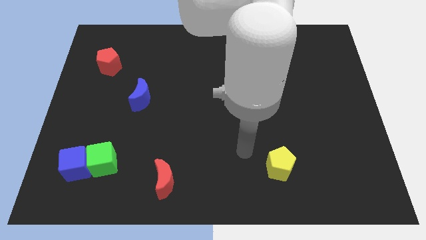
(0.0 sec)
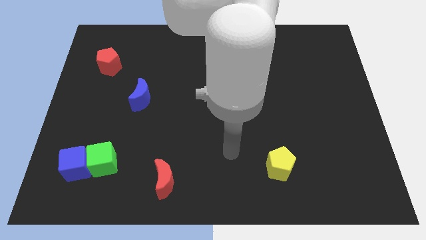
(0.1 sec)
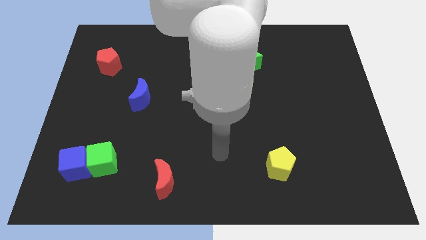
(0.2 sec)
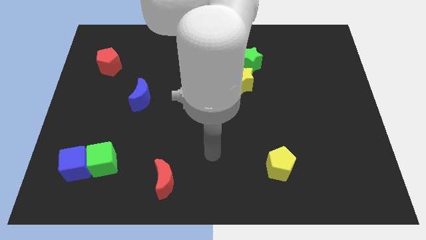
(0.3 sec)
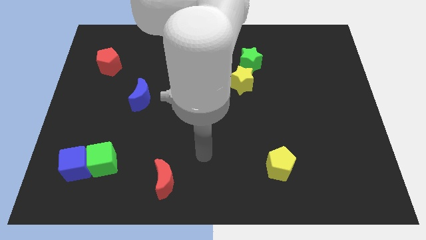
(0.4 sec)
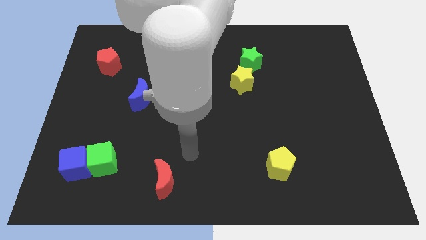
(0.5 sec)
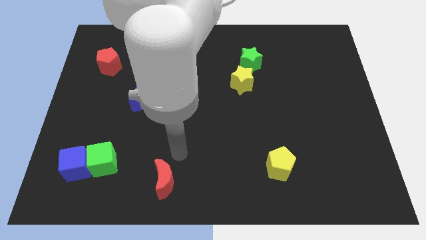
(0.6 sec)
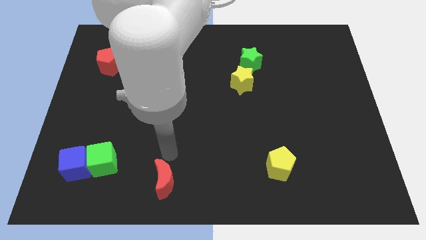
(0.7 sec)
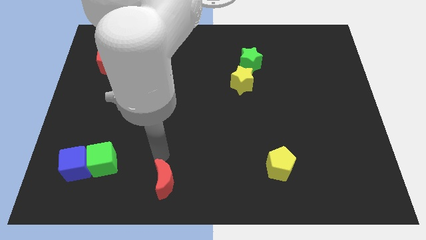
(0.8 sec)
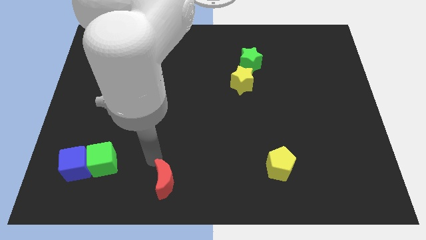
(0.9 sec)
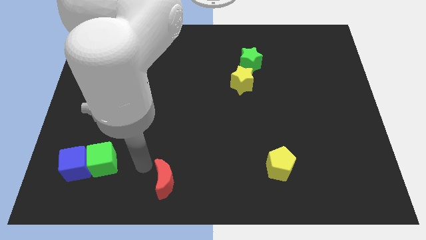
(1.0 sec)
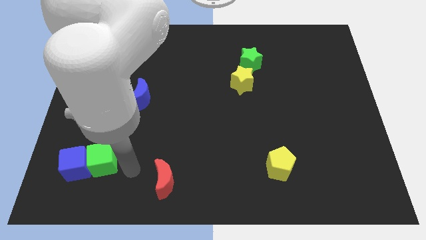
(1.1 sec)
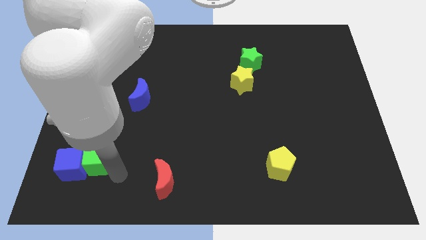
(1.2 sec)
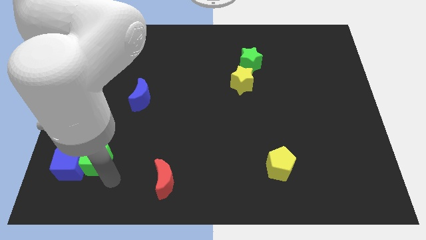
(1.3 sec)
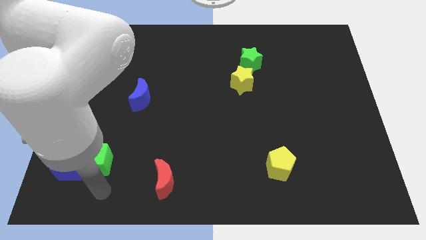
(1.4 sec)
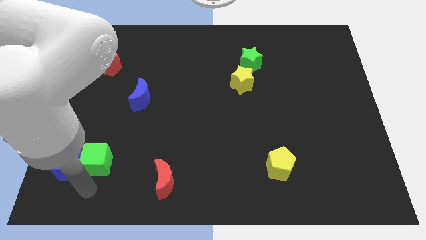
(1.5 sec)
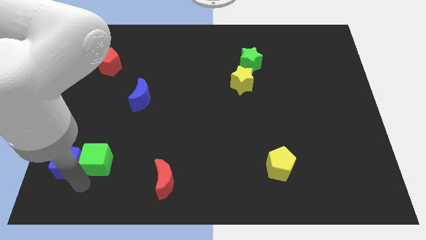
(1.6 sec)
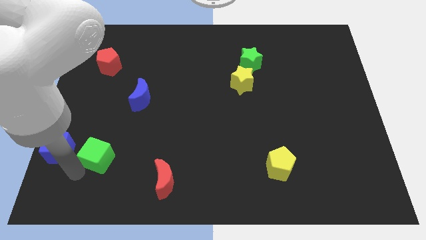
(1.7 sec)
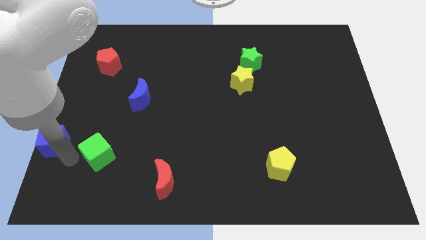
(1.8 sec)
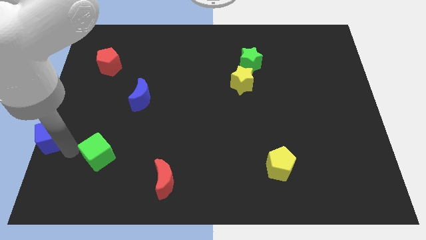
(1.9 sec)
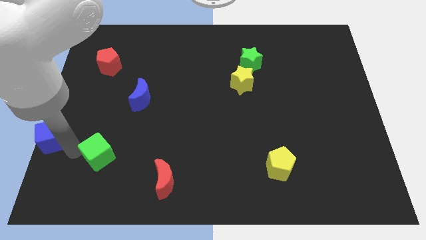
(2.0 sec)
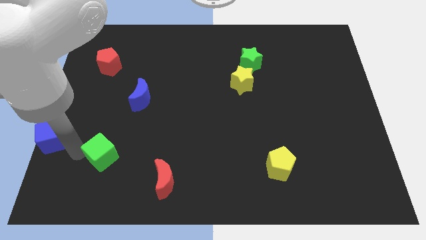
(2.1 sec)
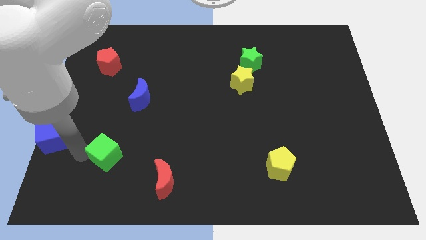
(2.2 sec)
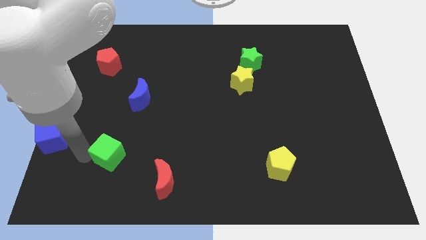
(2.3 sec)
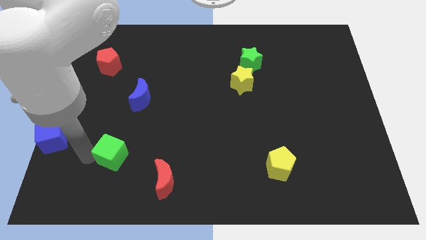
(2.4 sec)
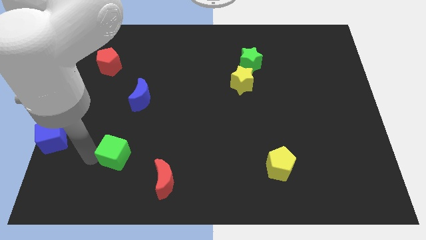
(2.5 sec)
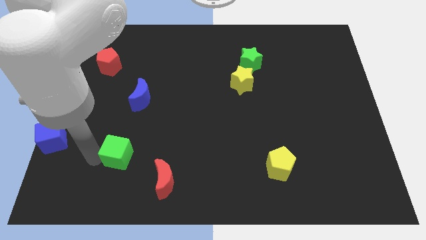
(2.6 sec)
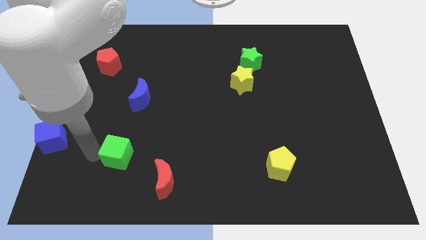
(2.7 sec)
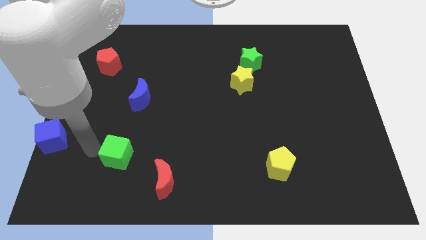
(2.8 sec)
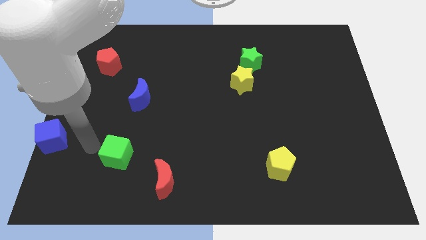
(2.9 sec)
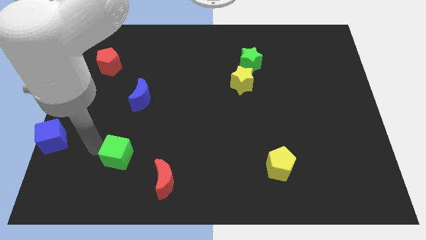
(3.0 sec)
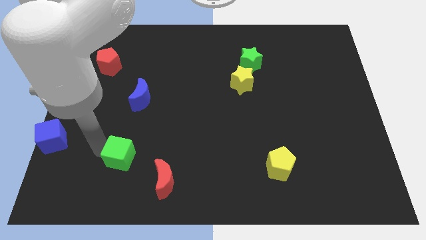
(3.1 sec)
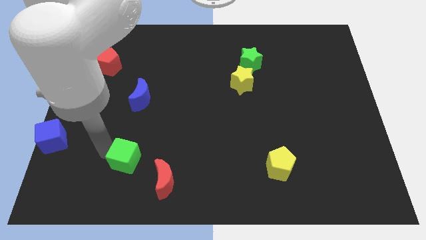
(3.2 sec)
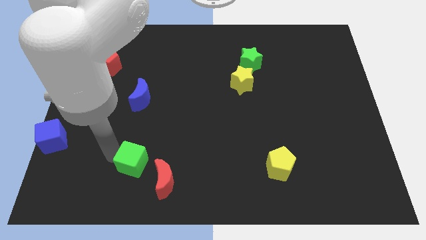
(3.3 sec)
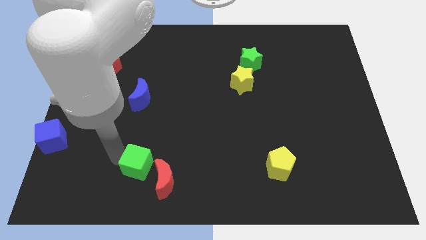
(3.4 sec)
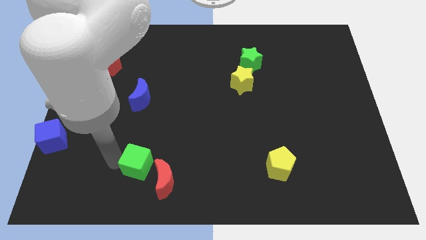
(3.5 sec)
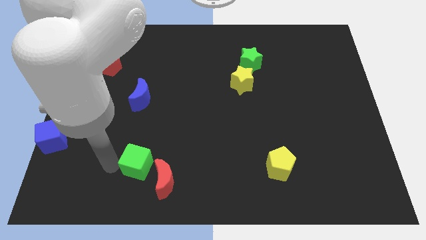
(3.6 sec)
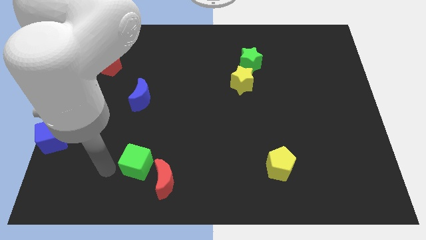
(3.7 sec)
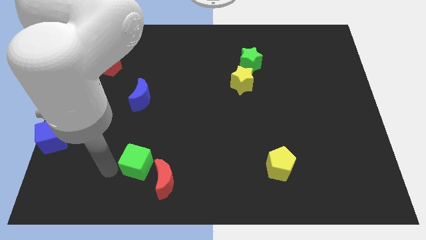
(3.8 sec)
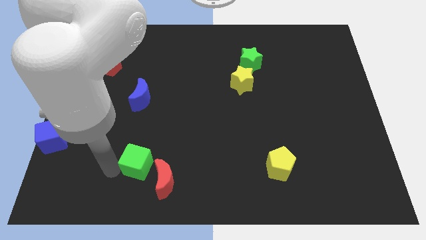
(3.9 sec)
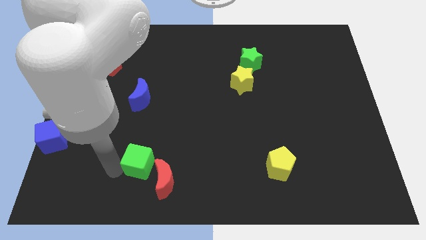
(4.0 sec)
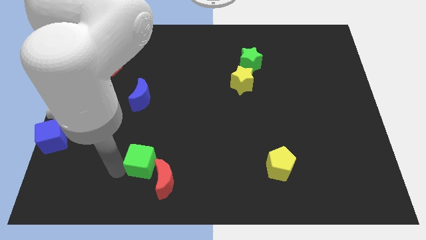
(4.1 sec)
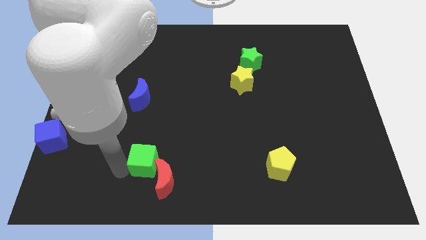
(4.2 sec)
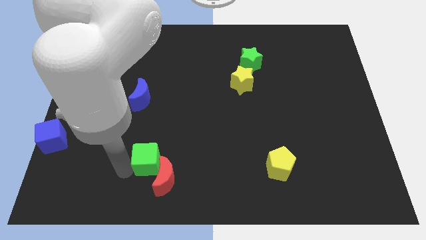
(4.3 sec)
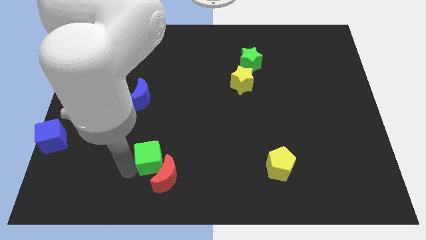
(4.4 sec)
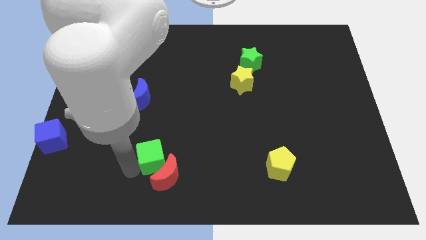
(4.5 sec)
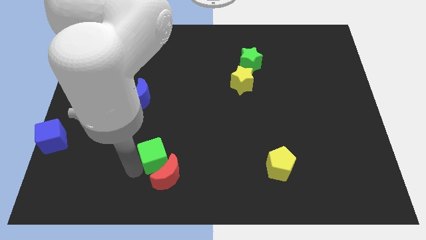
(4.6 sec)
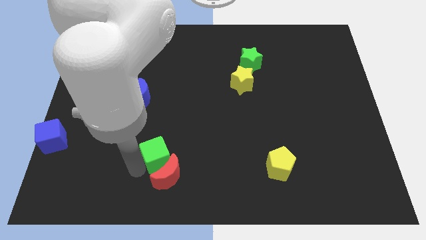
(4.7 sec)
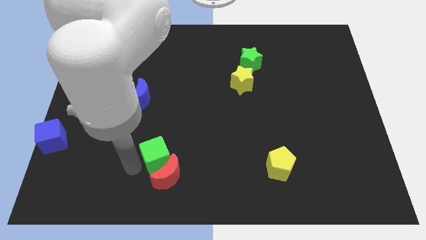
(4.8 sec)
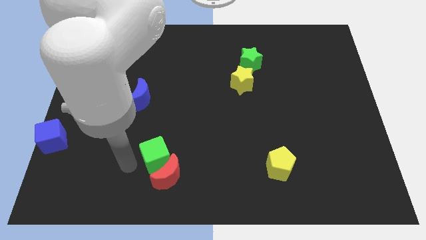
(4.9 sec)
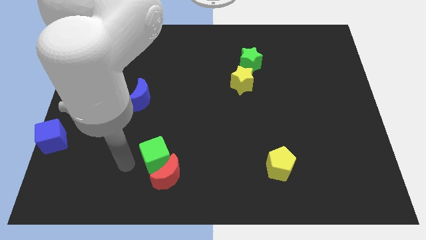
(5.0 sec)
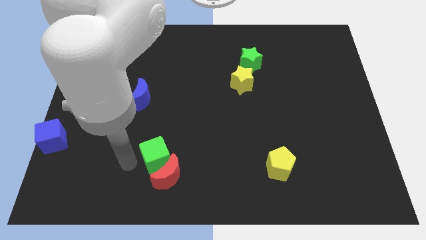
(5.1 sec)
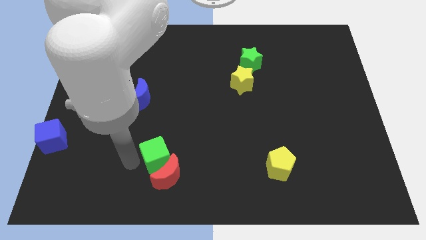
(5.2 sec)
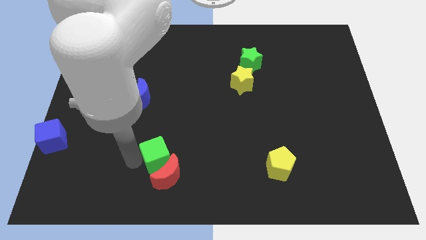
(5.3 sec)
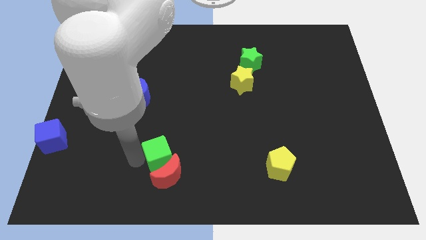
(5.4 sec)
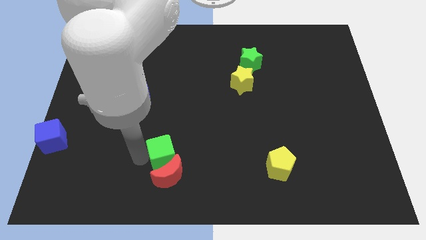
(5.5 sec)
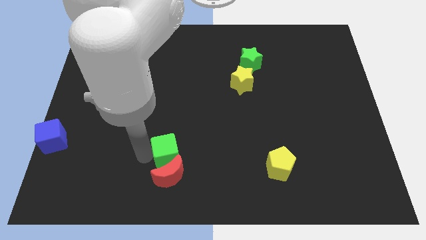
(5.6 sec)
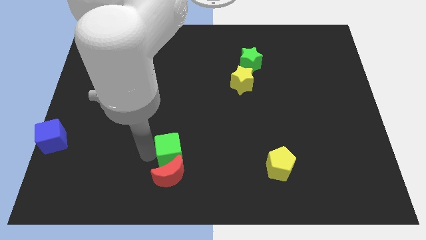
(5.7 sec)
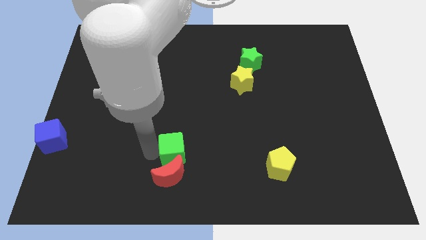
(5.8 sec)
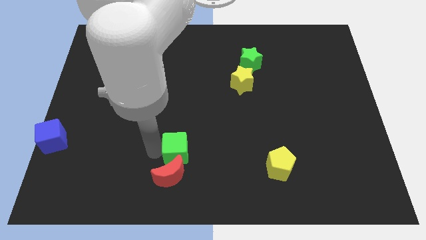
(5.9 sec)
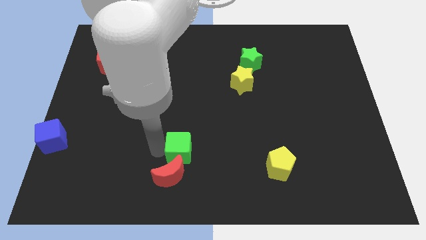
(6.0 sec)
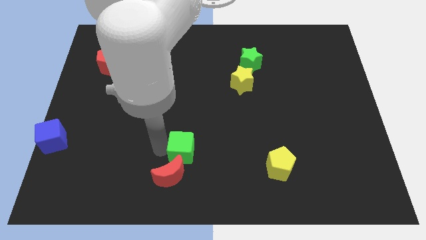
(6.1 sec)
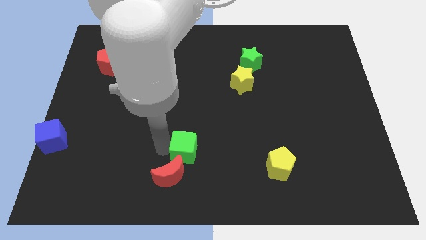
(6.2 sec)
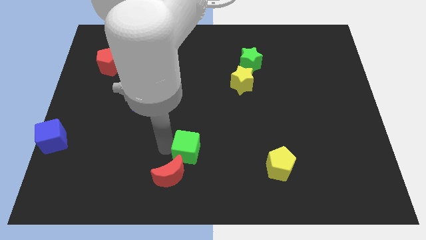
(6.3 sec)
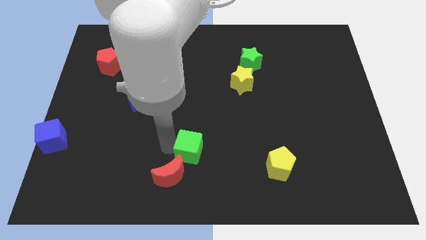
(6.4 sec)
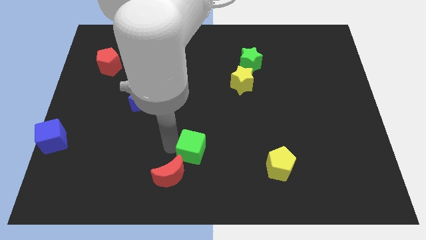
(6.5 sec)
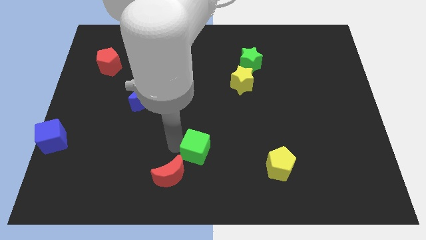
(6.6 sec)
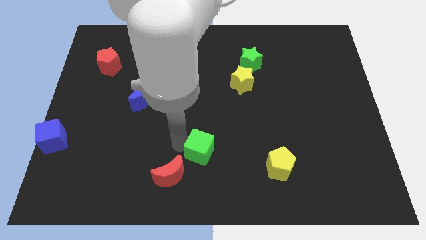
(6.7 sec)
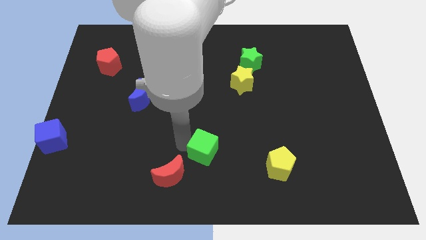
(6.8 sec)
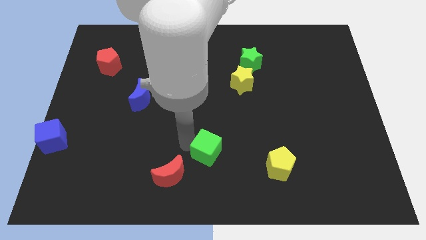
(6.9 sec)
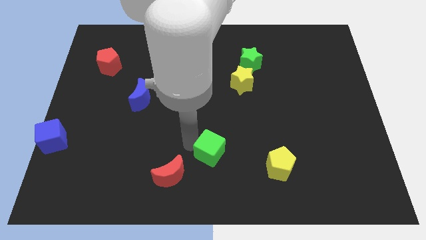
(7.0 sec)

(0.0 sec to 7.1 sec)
put the green cube just left of the yellow pentagon

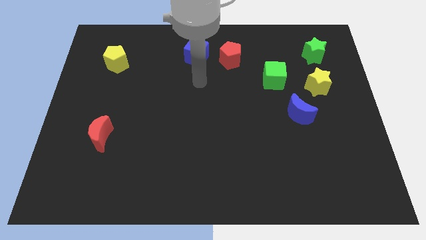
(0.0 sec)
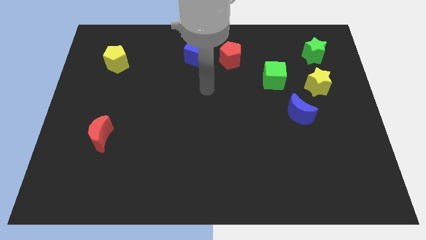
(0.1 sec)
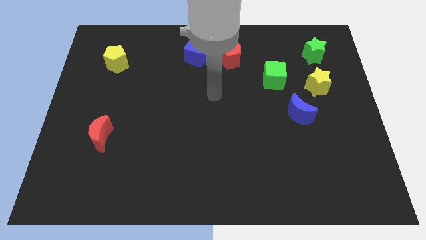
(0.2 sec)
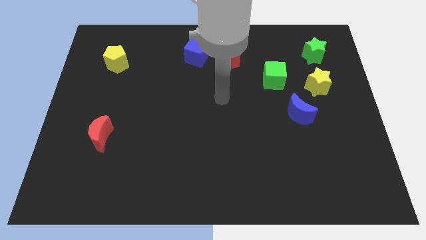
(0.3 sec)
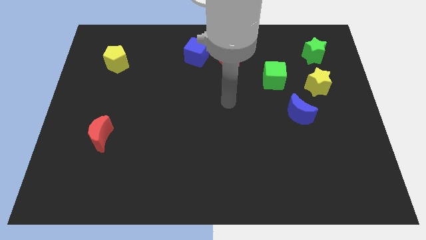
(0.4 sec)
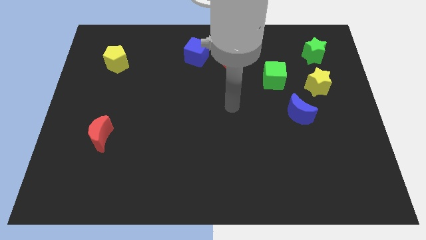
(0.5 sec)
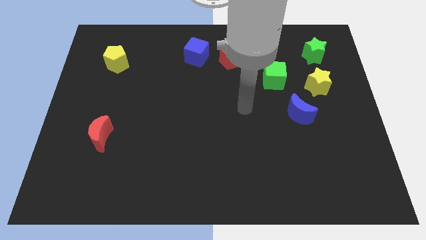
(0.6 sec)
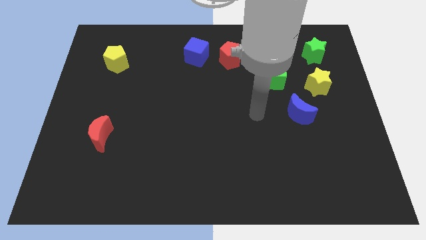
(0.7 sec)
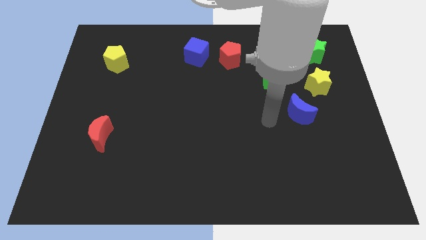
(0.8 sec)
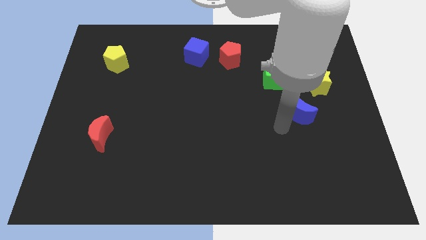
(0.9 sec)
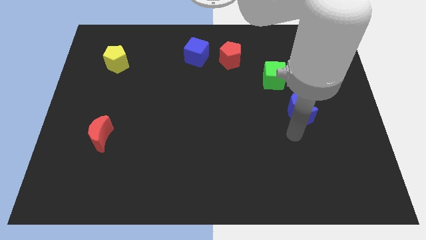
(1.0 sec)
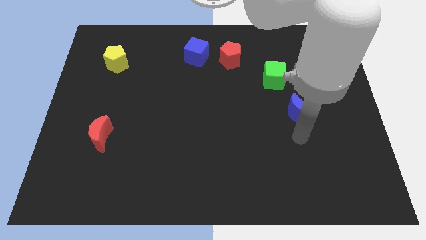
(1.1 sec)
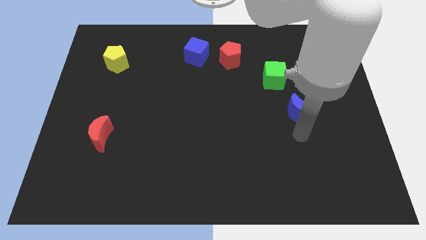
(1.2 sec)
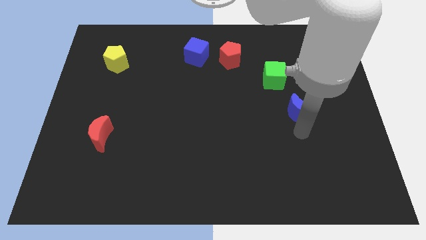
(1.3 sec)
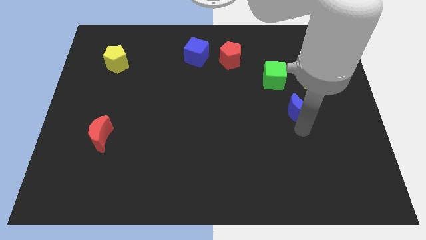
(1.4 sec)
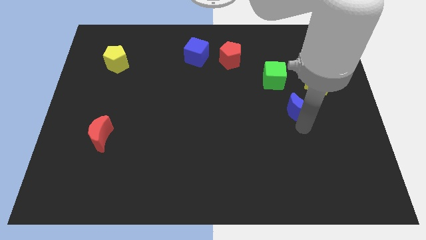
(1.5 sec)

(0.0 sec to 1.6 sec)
move the blue moon diagonally down and to the right of the green cube
